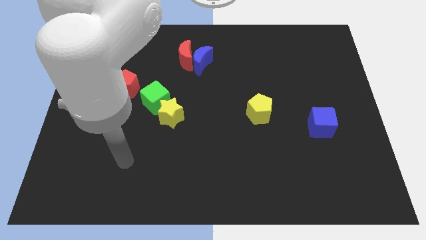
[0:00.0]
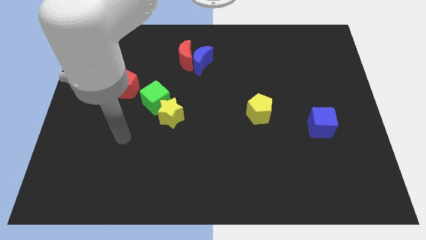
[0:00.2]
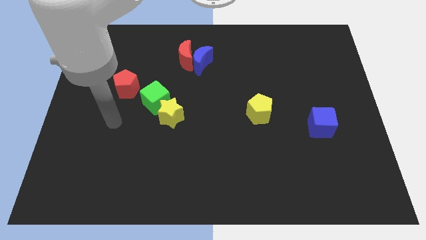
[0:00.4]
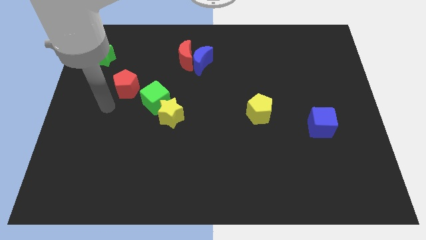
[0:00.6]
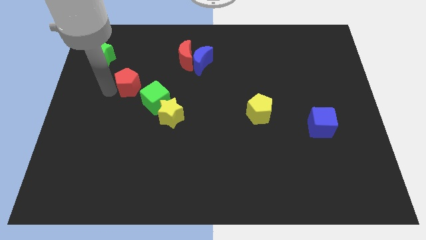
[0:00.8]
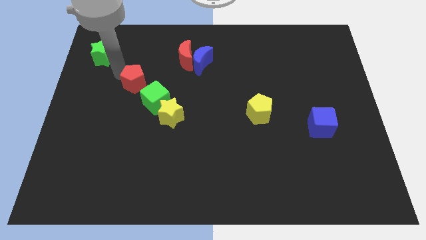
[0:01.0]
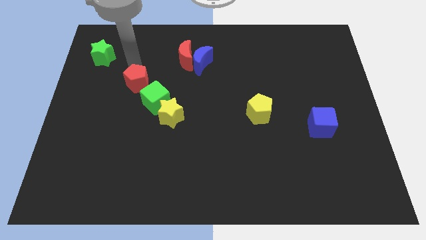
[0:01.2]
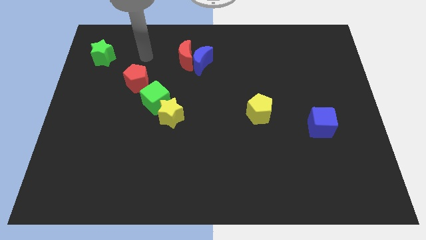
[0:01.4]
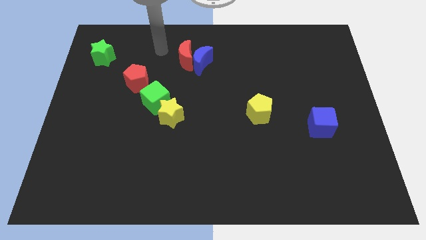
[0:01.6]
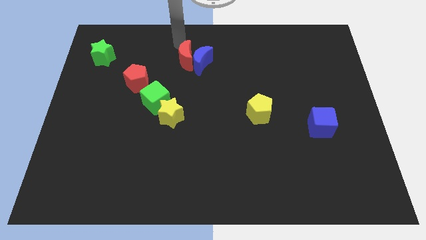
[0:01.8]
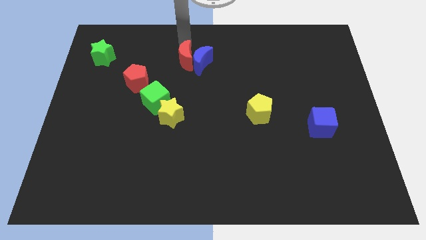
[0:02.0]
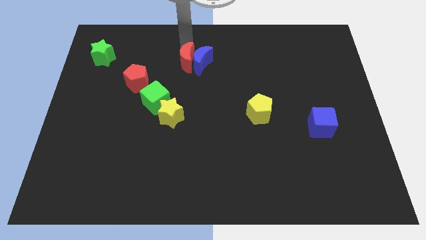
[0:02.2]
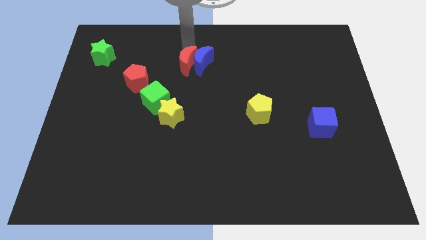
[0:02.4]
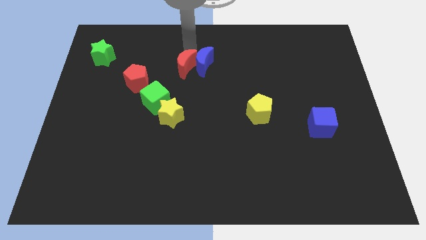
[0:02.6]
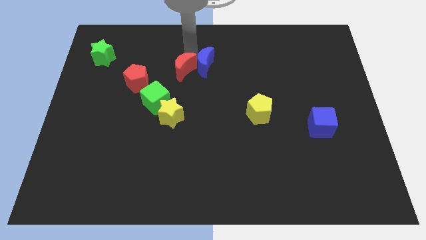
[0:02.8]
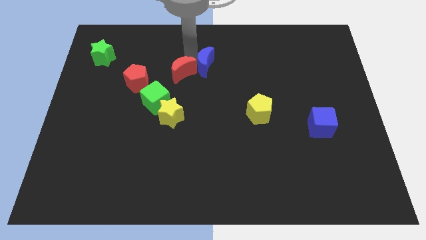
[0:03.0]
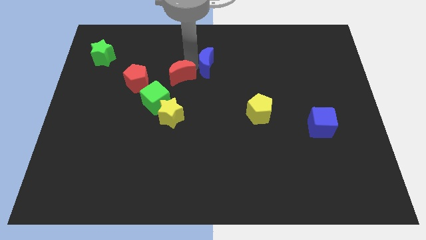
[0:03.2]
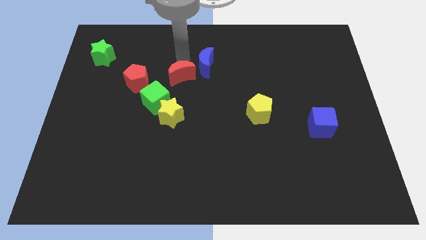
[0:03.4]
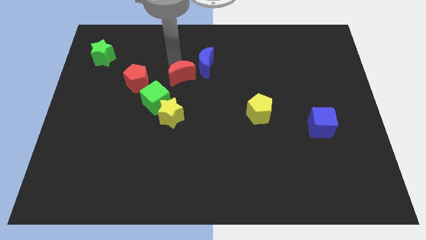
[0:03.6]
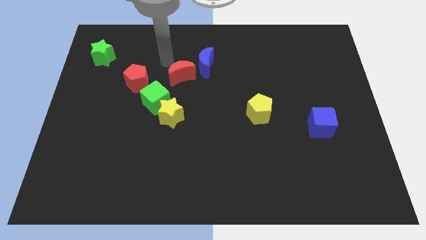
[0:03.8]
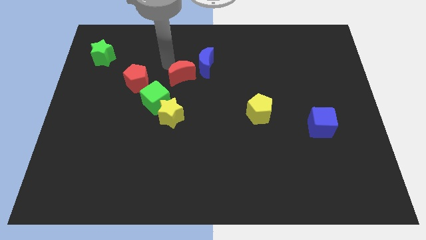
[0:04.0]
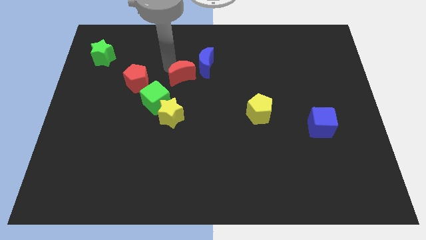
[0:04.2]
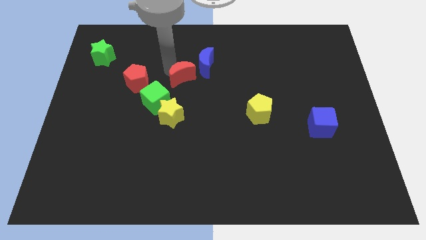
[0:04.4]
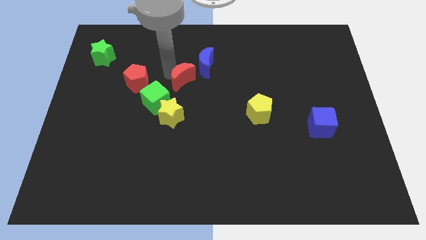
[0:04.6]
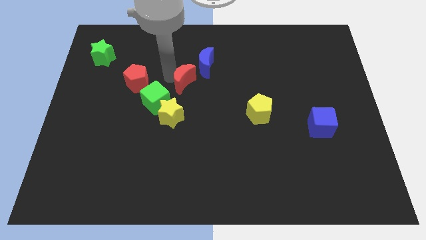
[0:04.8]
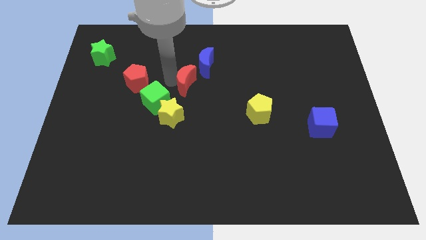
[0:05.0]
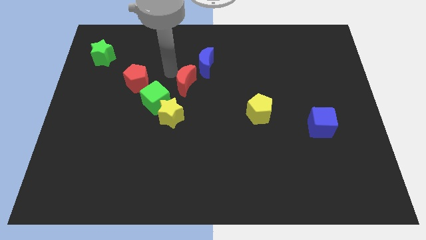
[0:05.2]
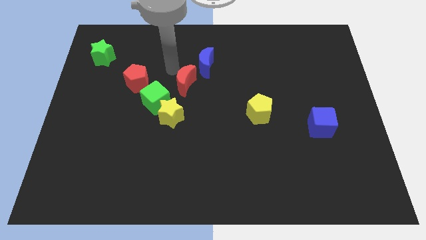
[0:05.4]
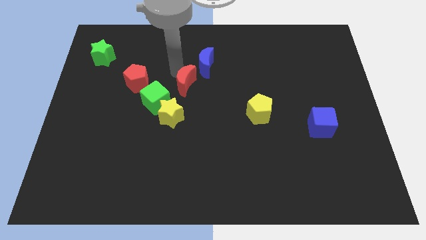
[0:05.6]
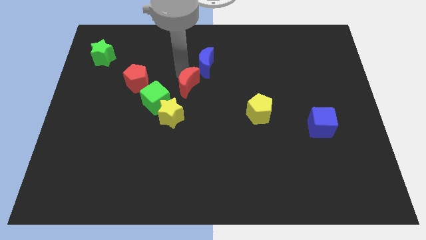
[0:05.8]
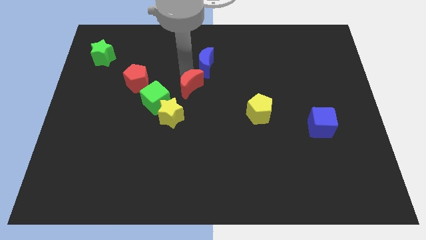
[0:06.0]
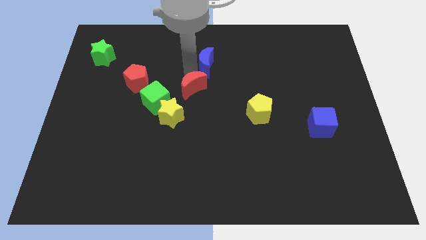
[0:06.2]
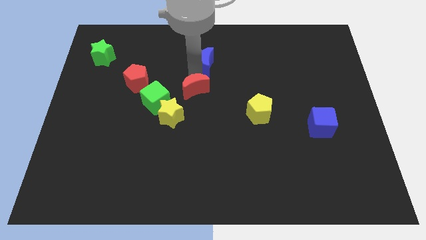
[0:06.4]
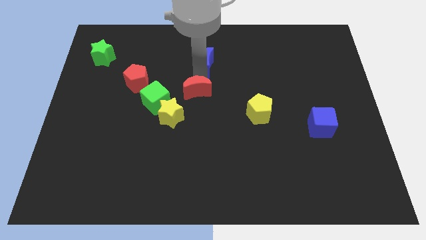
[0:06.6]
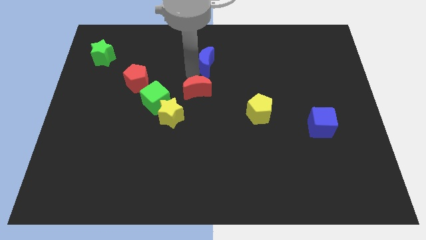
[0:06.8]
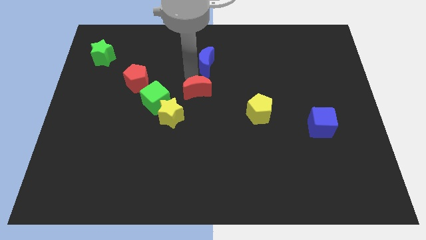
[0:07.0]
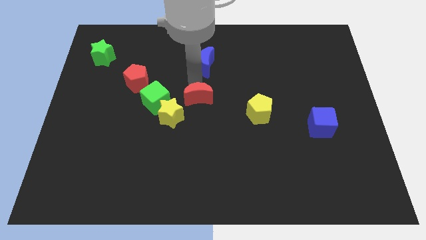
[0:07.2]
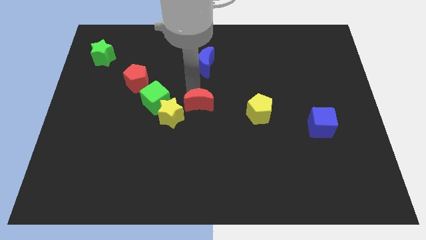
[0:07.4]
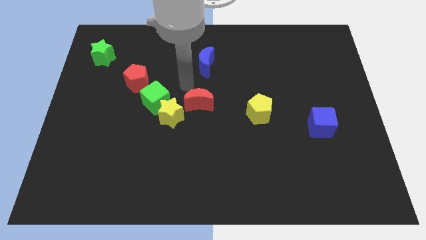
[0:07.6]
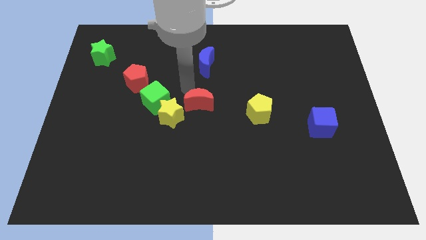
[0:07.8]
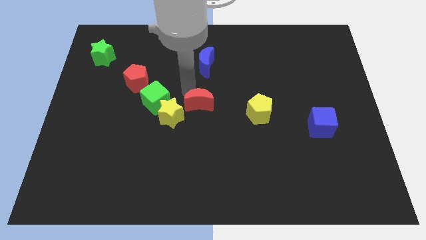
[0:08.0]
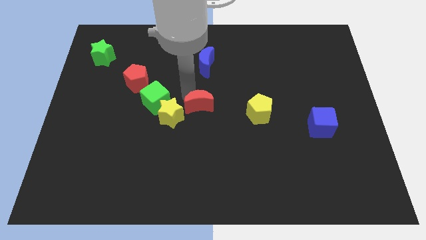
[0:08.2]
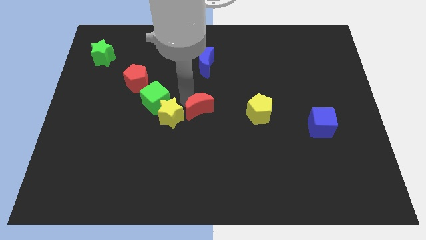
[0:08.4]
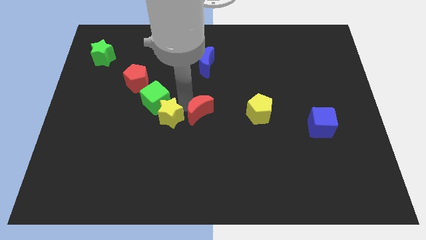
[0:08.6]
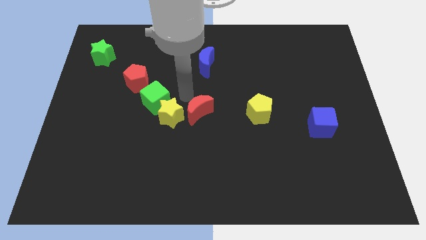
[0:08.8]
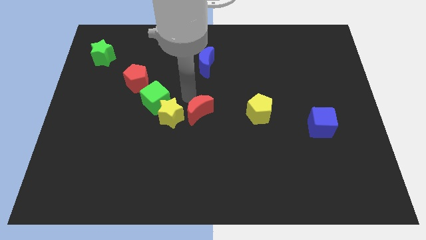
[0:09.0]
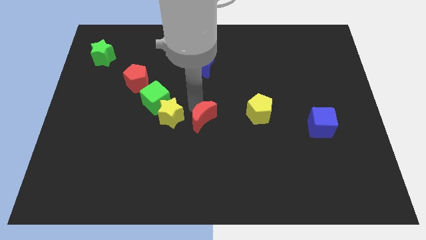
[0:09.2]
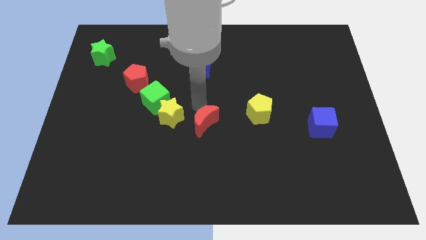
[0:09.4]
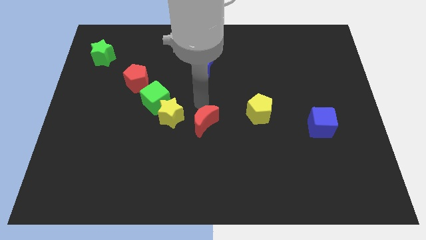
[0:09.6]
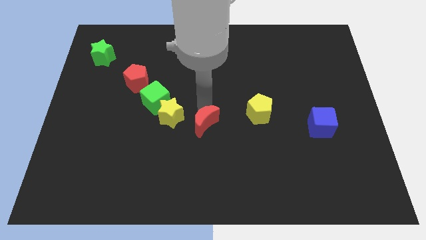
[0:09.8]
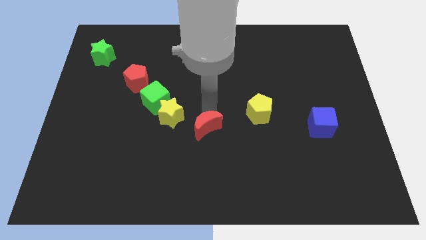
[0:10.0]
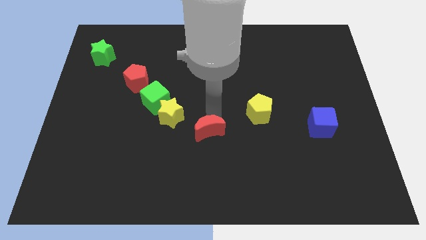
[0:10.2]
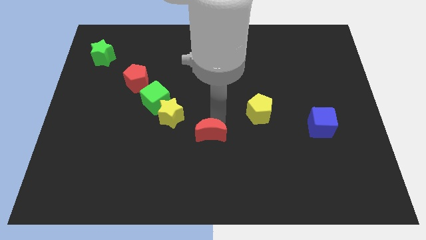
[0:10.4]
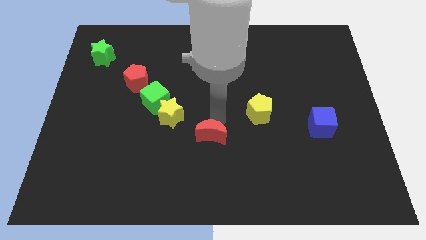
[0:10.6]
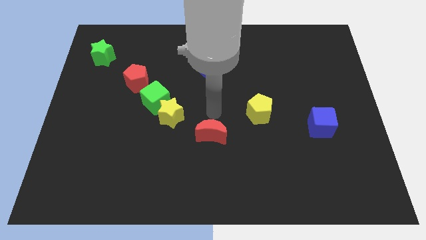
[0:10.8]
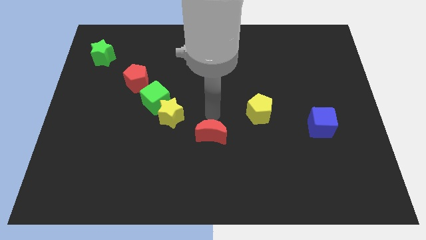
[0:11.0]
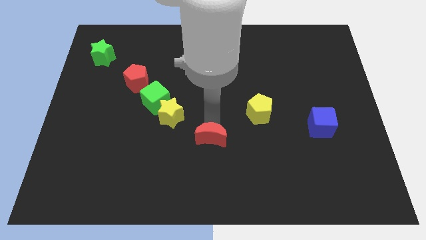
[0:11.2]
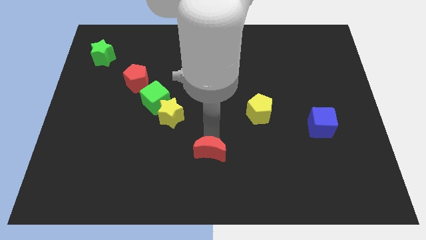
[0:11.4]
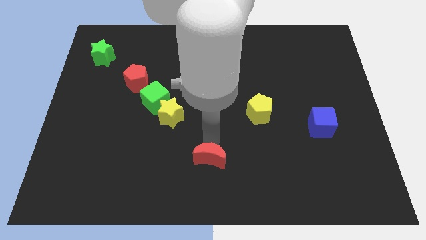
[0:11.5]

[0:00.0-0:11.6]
slide the red moon to the bottom

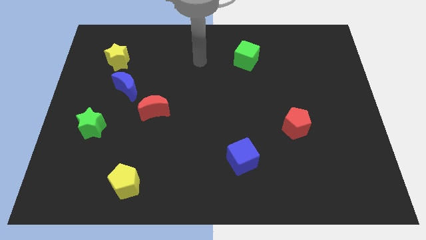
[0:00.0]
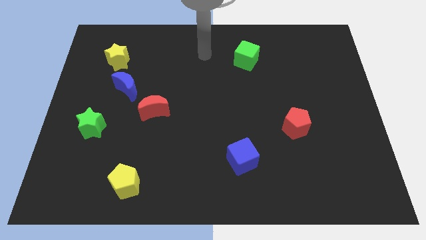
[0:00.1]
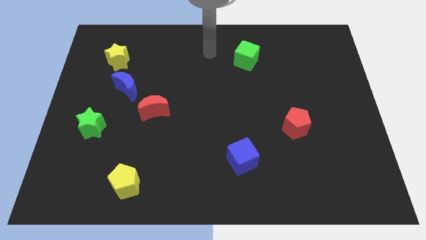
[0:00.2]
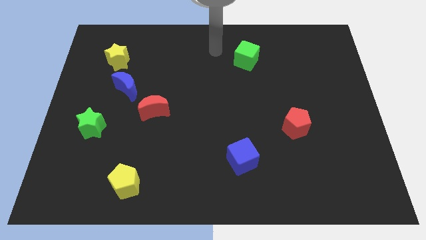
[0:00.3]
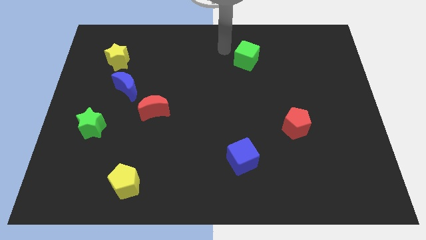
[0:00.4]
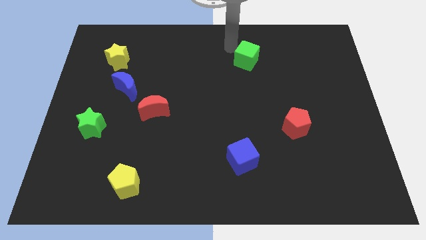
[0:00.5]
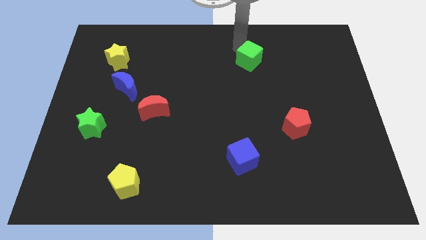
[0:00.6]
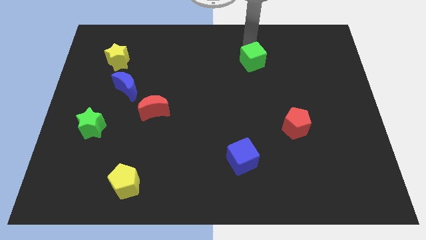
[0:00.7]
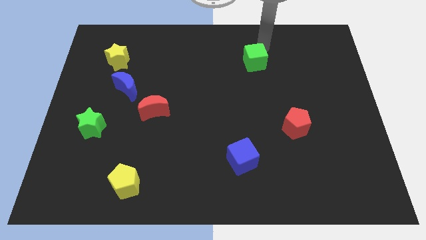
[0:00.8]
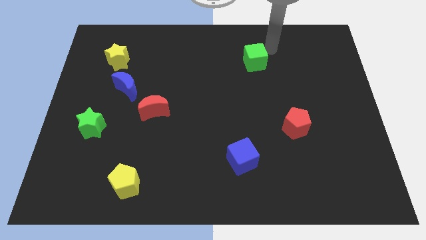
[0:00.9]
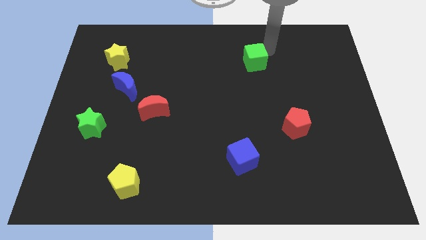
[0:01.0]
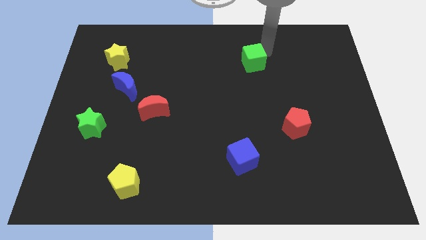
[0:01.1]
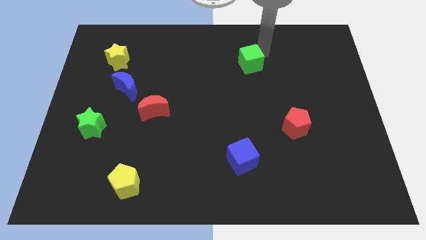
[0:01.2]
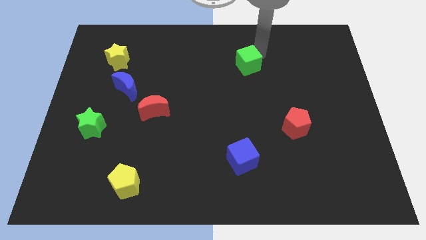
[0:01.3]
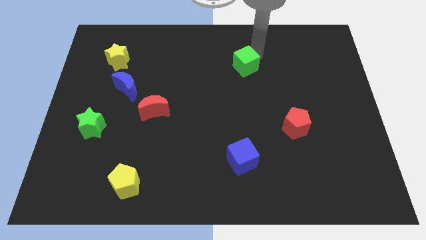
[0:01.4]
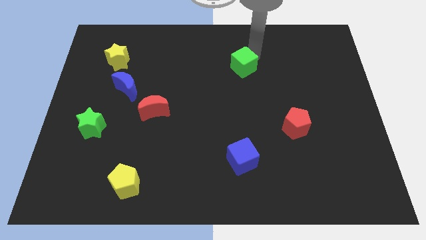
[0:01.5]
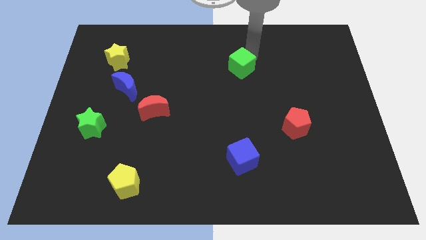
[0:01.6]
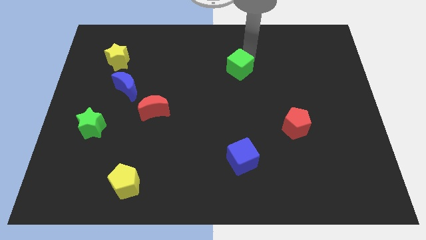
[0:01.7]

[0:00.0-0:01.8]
push the green cube to the middle of the board
